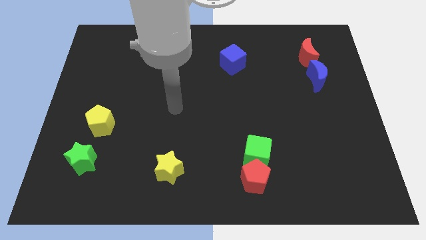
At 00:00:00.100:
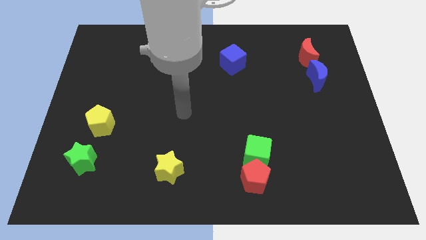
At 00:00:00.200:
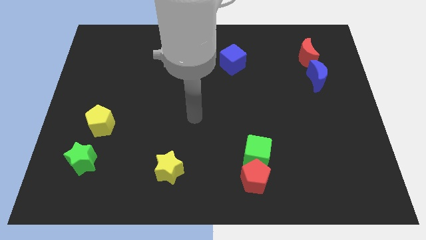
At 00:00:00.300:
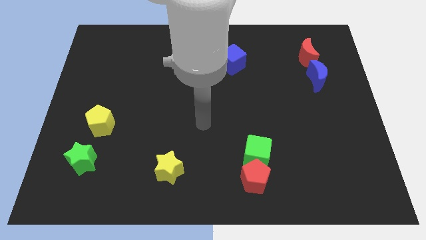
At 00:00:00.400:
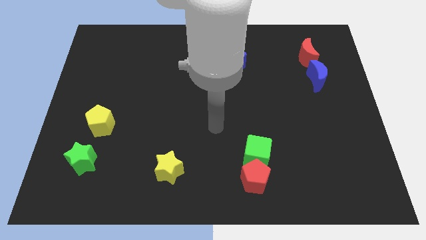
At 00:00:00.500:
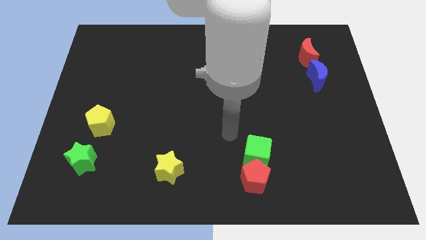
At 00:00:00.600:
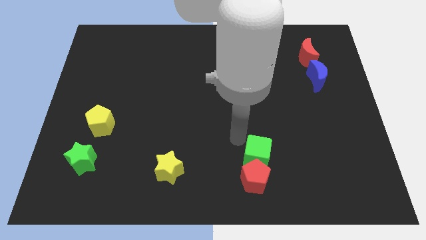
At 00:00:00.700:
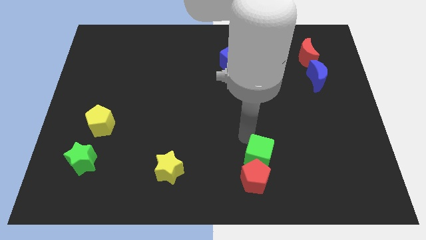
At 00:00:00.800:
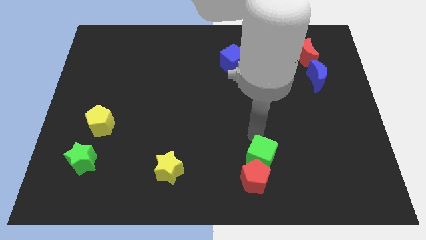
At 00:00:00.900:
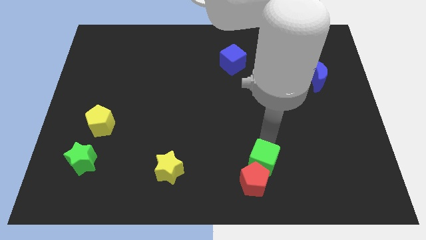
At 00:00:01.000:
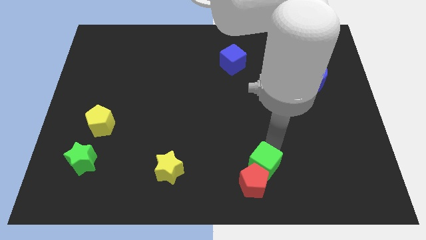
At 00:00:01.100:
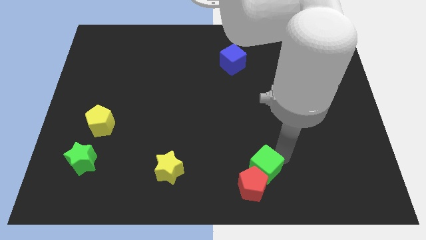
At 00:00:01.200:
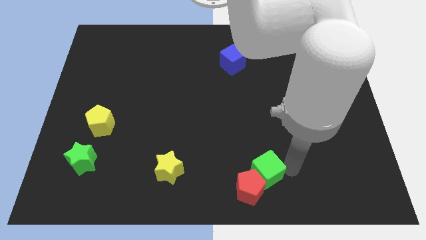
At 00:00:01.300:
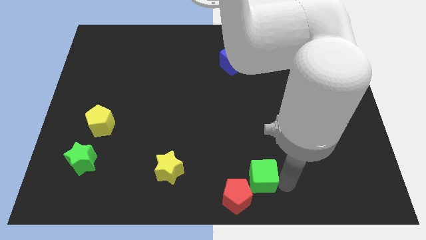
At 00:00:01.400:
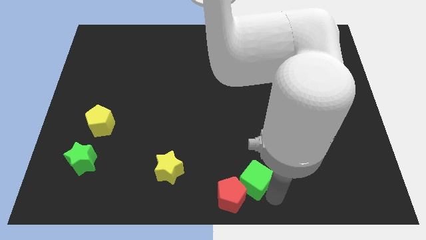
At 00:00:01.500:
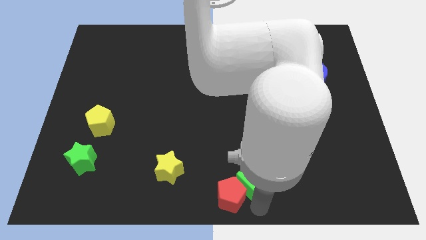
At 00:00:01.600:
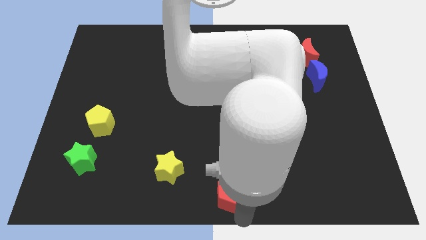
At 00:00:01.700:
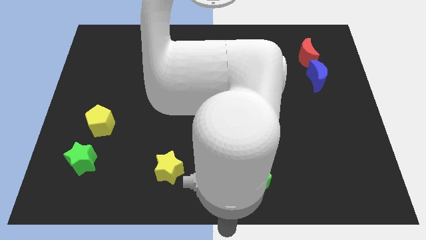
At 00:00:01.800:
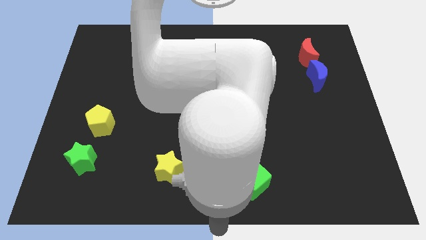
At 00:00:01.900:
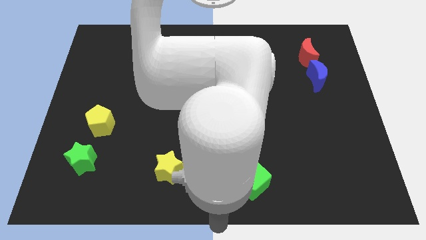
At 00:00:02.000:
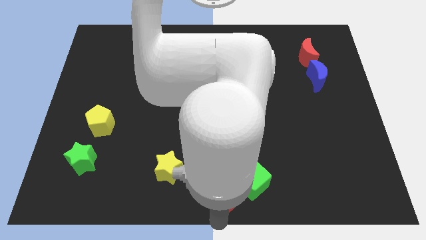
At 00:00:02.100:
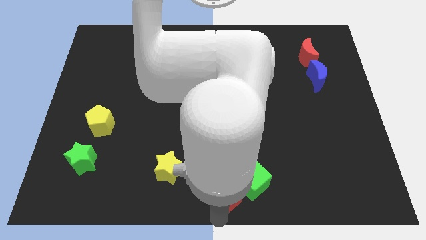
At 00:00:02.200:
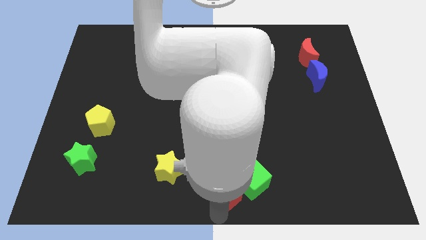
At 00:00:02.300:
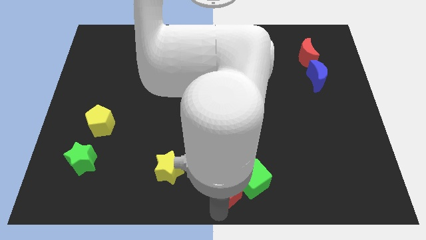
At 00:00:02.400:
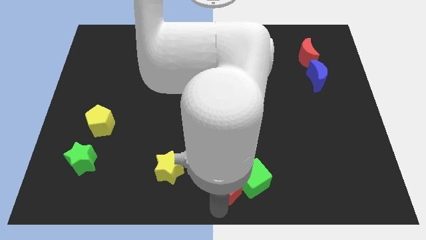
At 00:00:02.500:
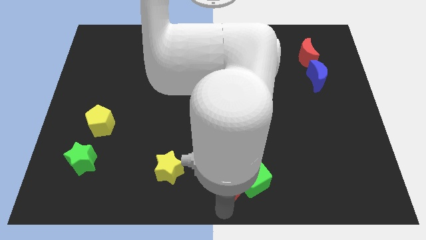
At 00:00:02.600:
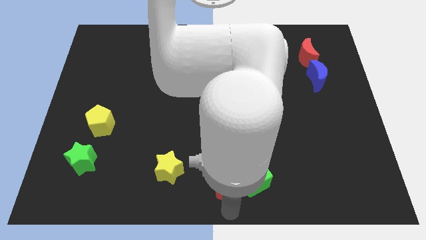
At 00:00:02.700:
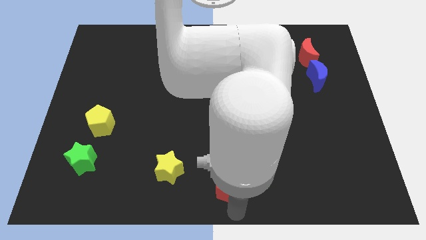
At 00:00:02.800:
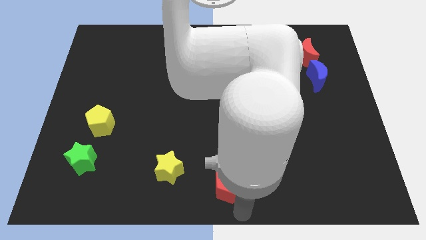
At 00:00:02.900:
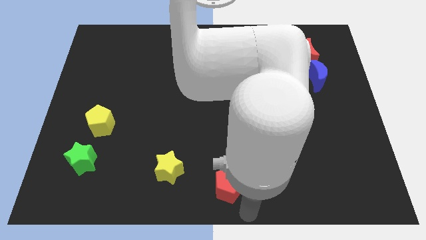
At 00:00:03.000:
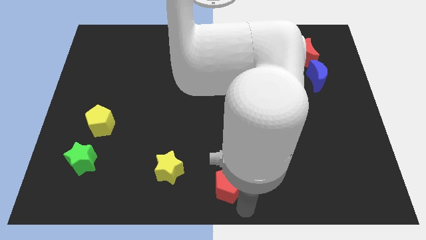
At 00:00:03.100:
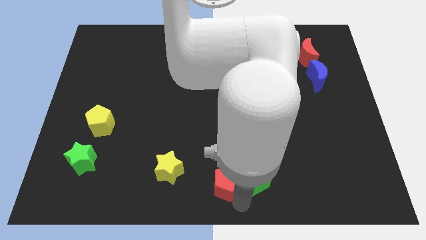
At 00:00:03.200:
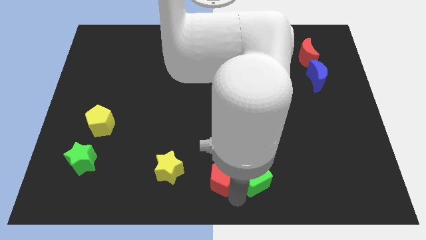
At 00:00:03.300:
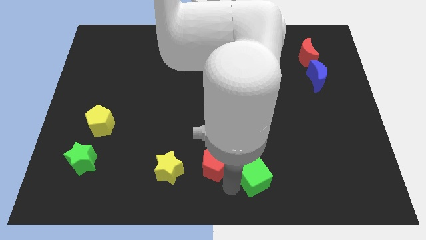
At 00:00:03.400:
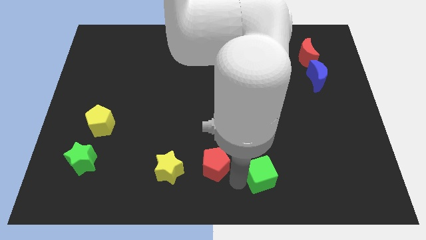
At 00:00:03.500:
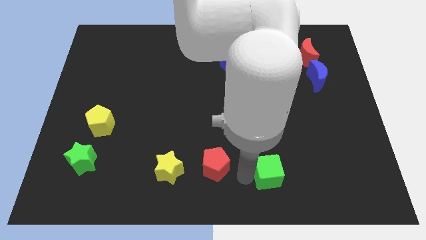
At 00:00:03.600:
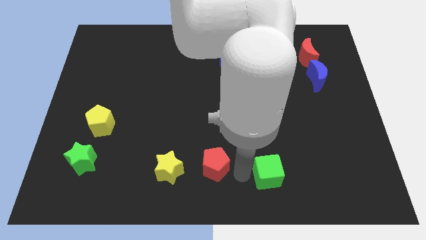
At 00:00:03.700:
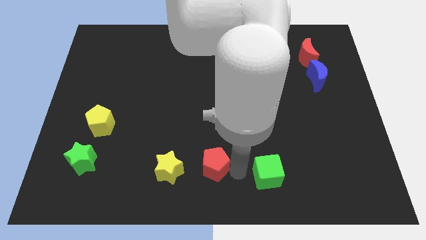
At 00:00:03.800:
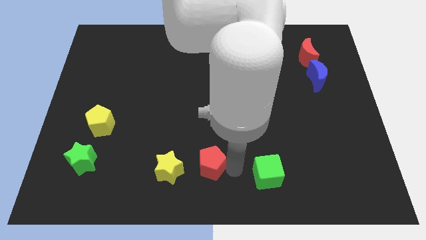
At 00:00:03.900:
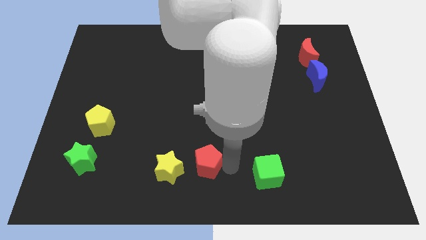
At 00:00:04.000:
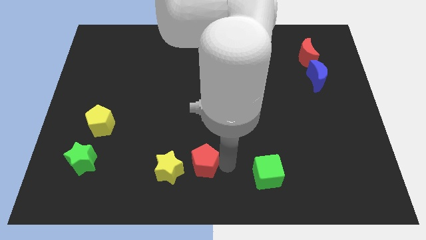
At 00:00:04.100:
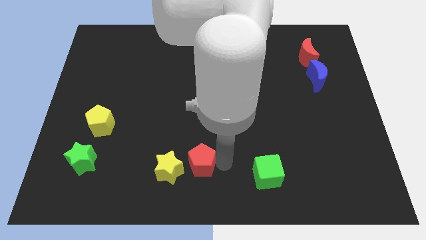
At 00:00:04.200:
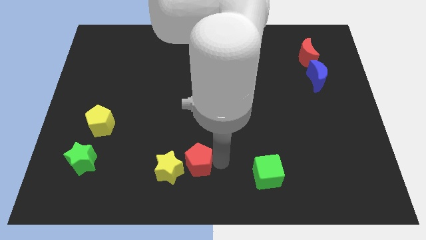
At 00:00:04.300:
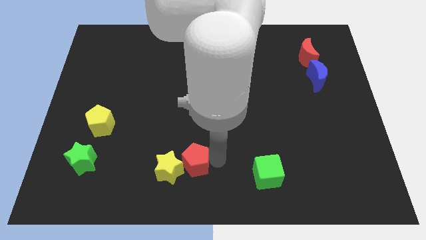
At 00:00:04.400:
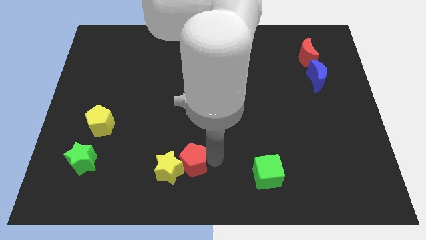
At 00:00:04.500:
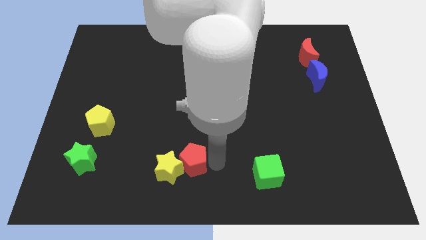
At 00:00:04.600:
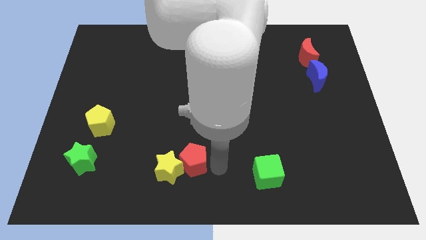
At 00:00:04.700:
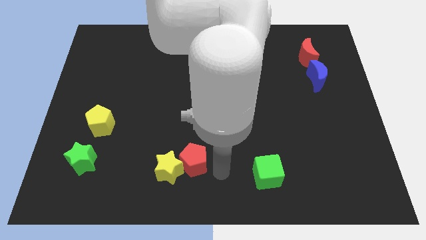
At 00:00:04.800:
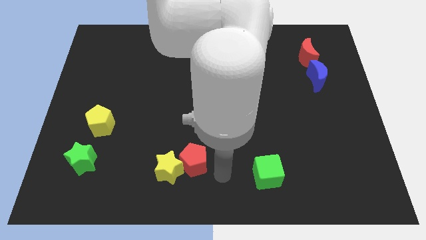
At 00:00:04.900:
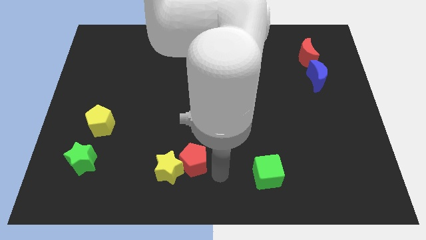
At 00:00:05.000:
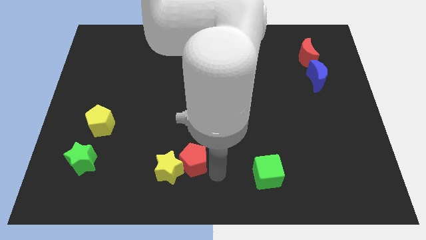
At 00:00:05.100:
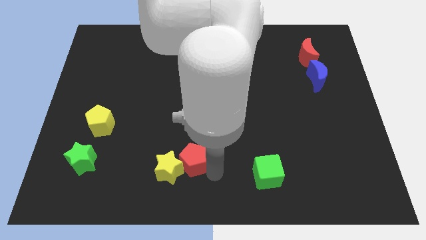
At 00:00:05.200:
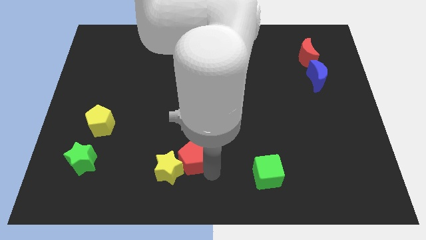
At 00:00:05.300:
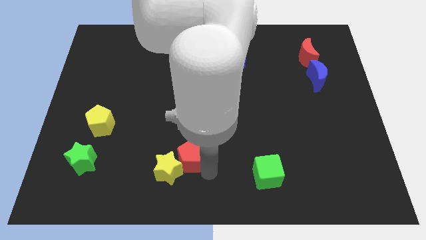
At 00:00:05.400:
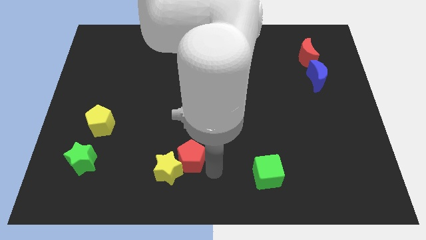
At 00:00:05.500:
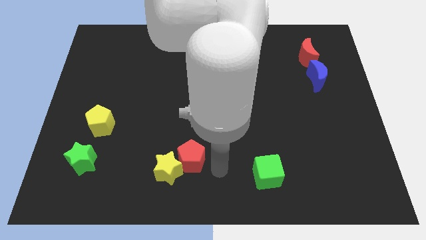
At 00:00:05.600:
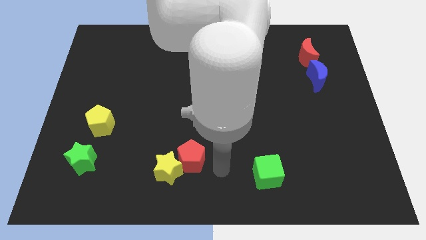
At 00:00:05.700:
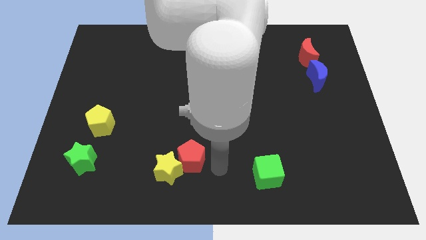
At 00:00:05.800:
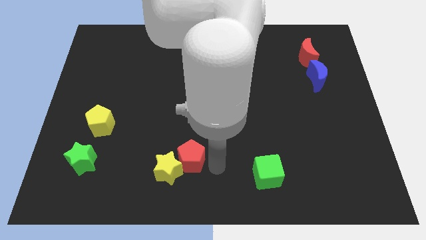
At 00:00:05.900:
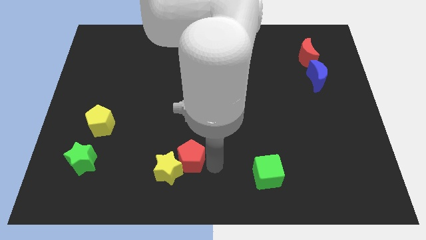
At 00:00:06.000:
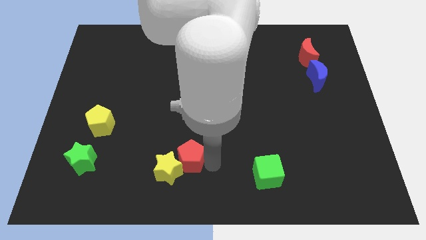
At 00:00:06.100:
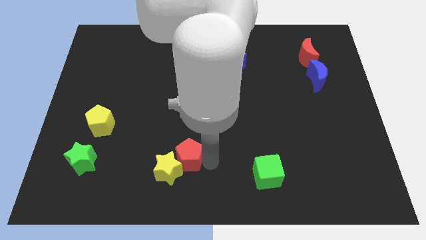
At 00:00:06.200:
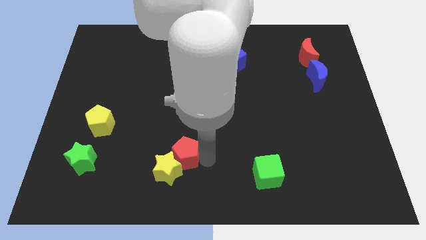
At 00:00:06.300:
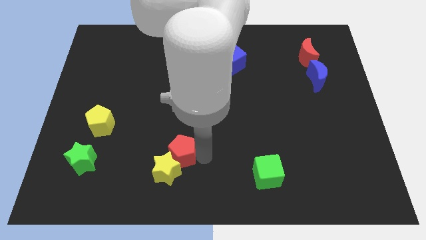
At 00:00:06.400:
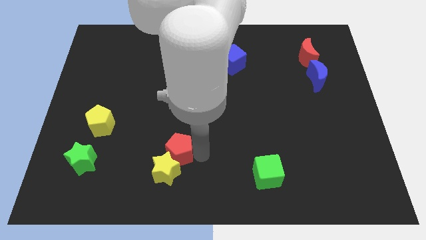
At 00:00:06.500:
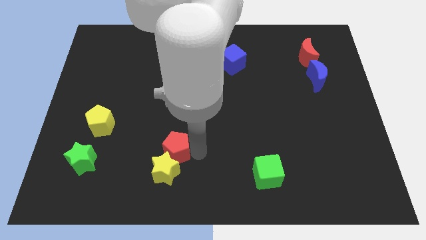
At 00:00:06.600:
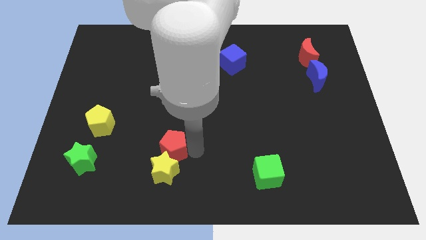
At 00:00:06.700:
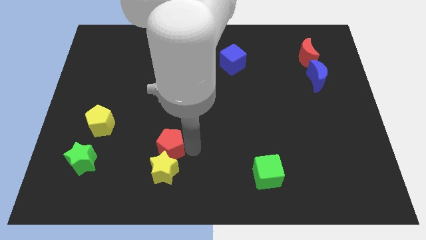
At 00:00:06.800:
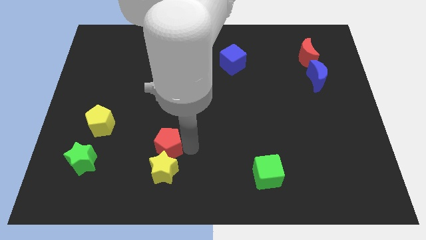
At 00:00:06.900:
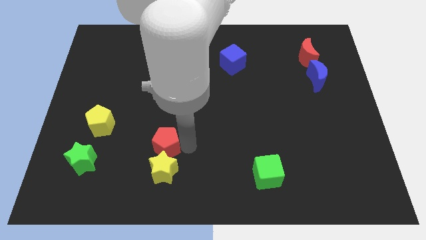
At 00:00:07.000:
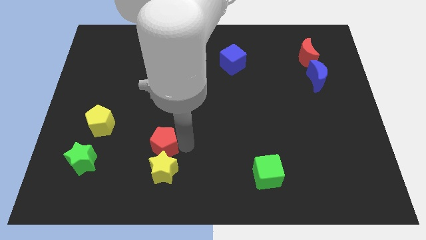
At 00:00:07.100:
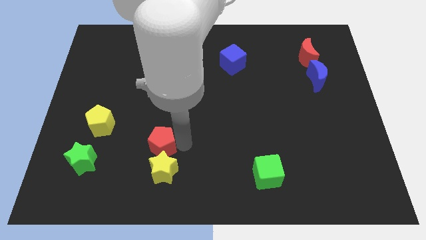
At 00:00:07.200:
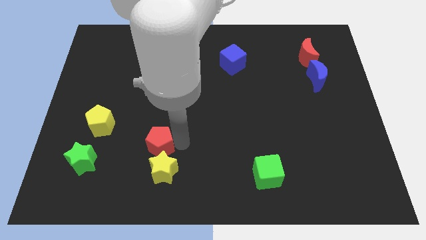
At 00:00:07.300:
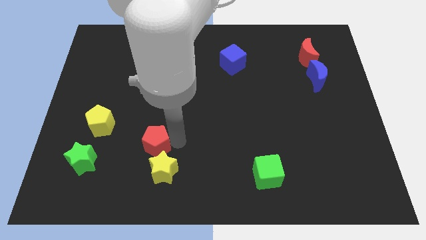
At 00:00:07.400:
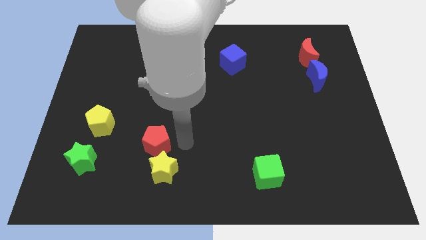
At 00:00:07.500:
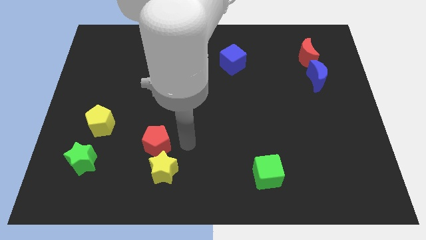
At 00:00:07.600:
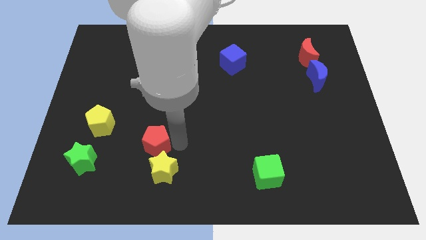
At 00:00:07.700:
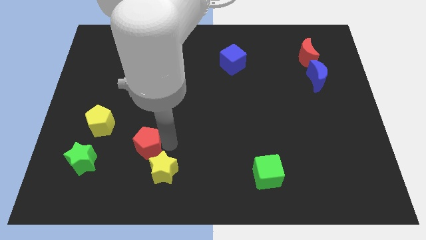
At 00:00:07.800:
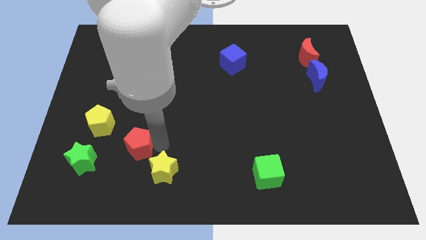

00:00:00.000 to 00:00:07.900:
slide the red pentagon to the bottom right of the yellow pentagon
